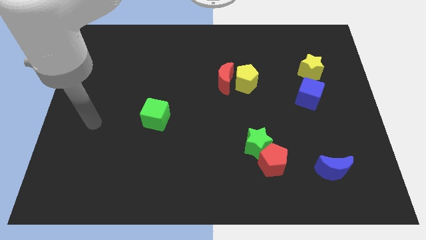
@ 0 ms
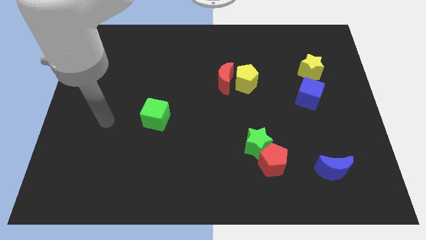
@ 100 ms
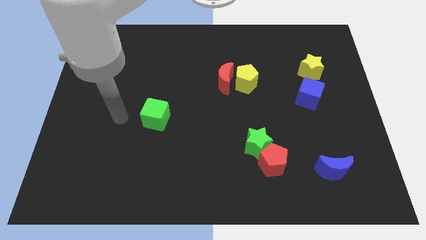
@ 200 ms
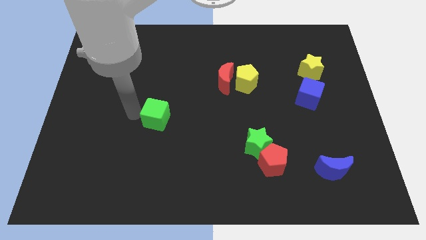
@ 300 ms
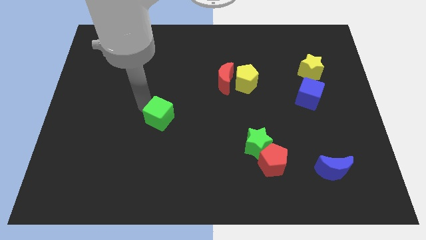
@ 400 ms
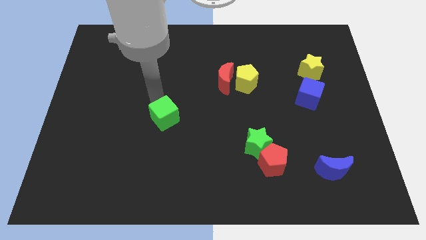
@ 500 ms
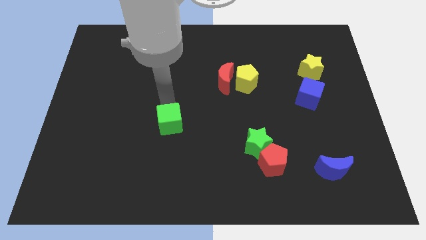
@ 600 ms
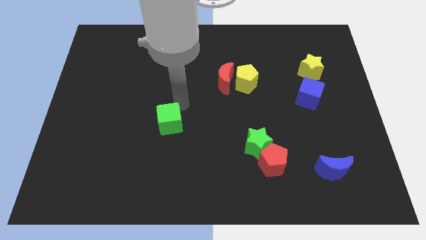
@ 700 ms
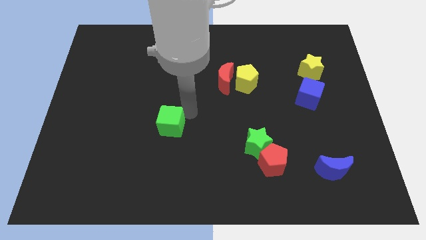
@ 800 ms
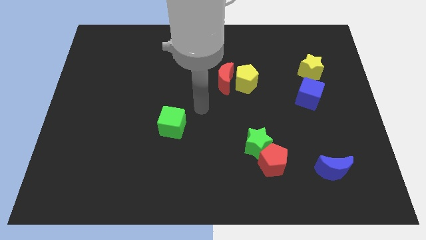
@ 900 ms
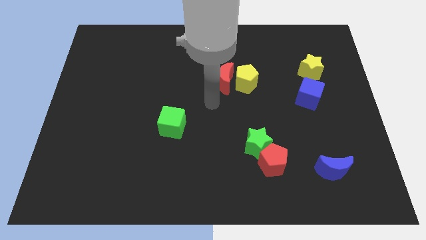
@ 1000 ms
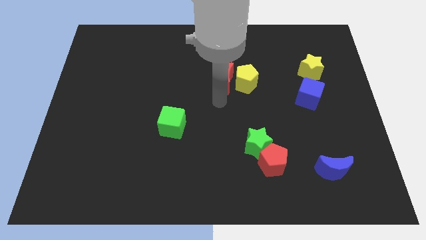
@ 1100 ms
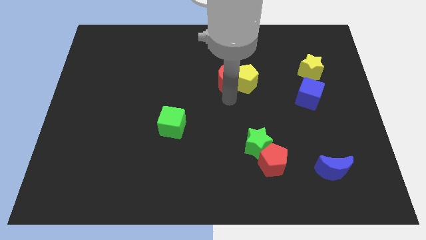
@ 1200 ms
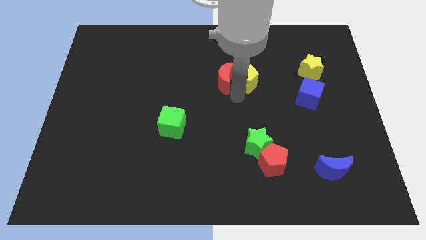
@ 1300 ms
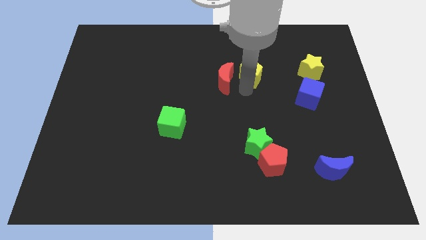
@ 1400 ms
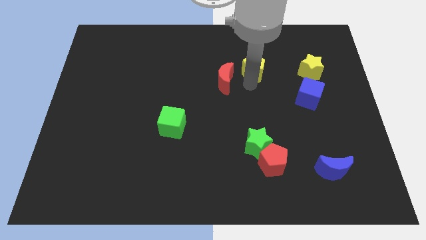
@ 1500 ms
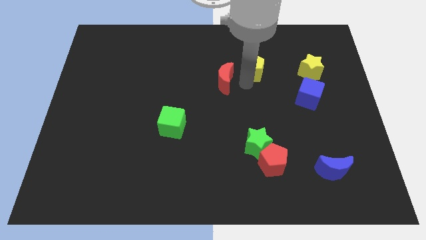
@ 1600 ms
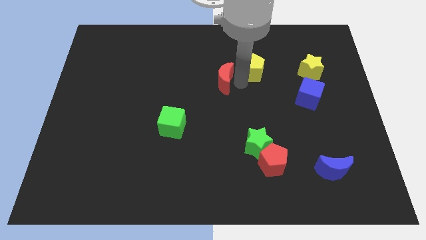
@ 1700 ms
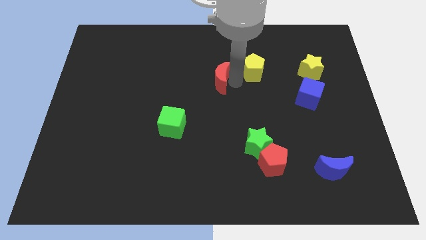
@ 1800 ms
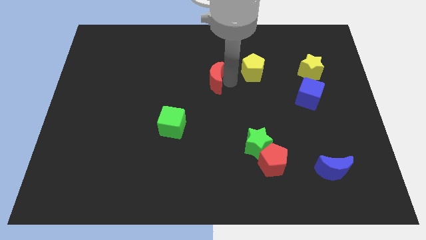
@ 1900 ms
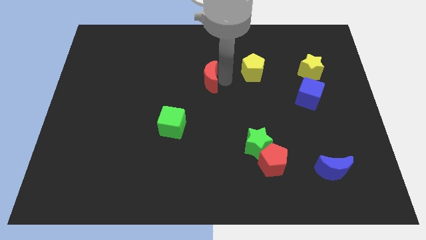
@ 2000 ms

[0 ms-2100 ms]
separate the red moon from the yellow pentagon

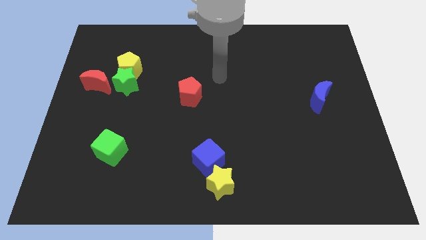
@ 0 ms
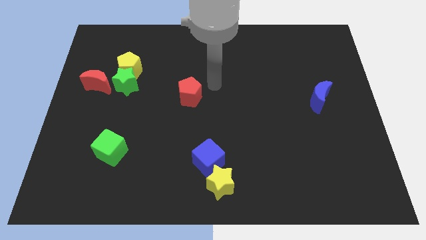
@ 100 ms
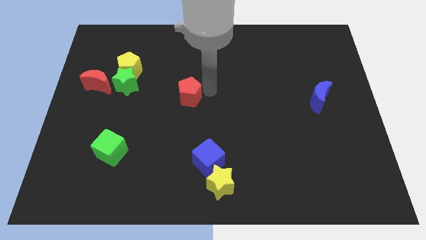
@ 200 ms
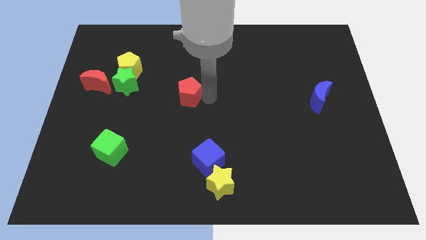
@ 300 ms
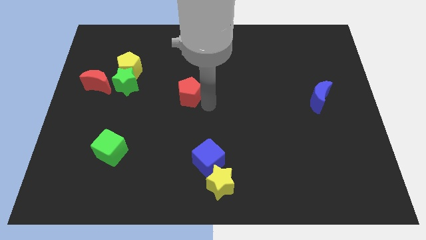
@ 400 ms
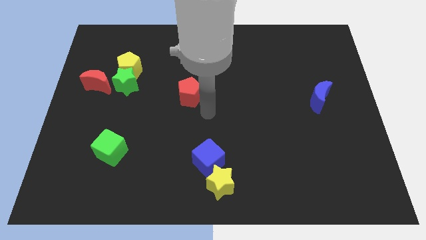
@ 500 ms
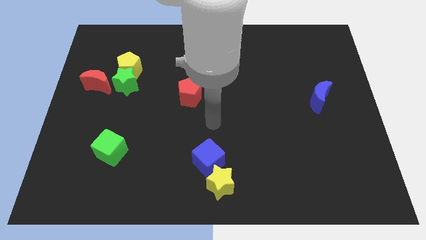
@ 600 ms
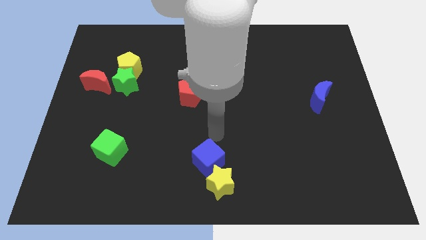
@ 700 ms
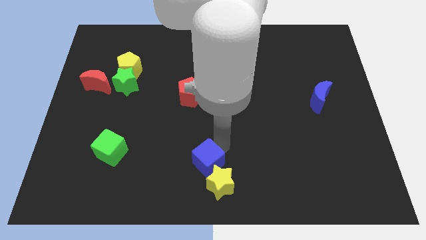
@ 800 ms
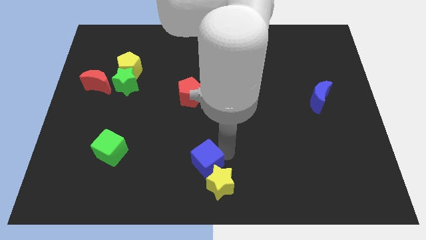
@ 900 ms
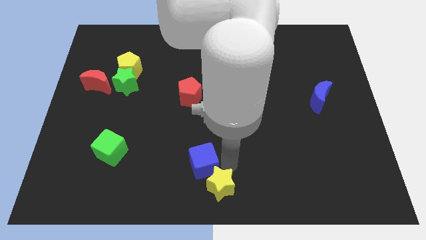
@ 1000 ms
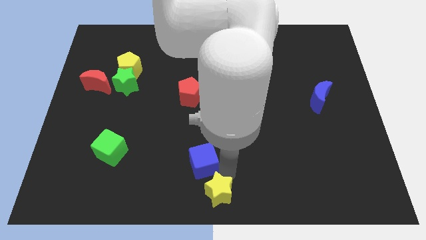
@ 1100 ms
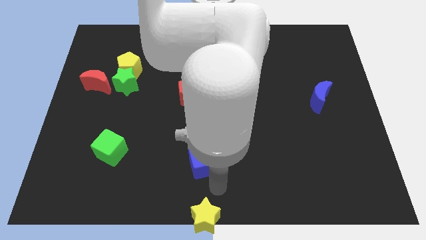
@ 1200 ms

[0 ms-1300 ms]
pull the blue cube apart from the yellow star

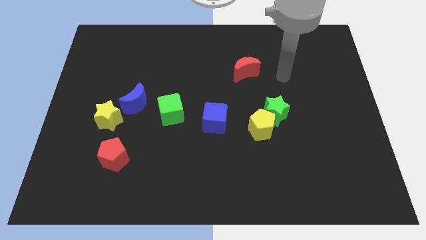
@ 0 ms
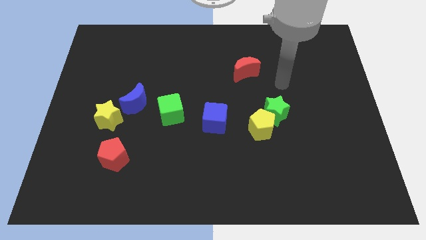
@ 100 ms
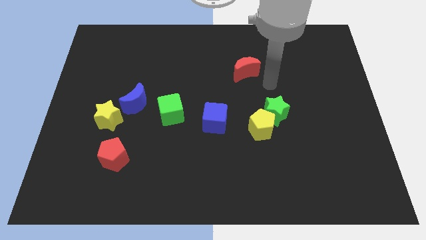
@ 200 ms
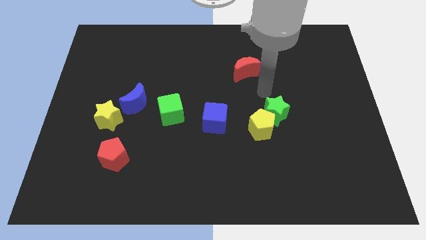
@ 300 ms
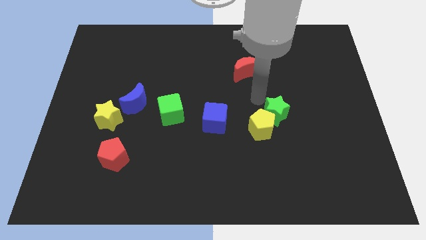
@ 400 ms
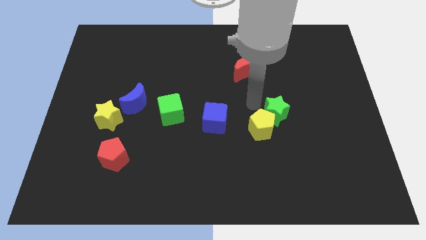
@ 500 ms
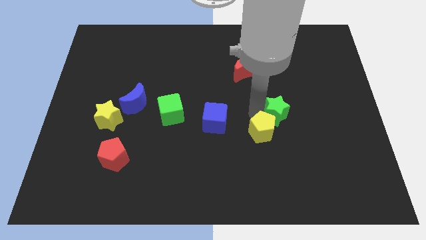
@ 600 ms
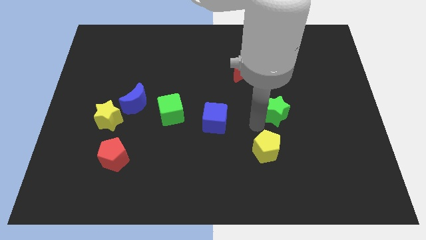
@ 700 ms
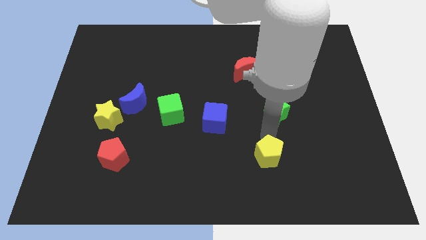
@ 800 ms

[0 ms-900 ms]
separate the green star from the yellow pentagon

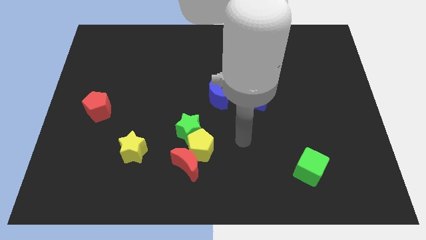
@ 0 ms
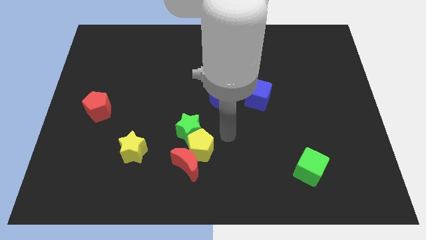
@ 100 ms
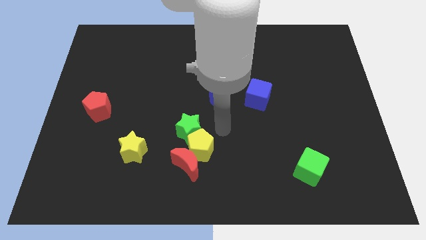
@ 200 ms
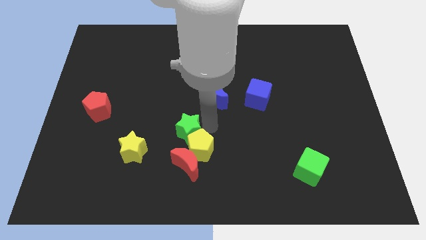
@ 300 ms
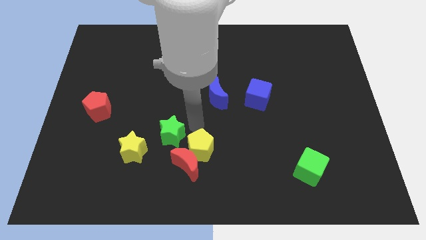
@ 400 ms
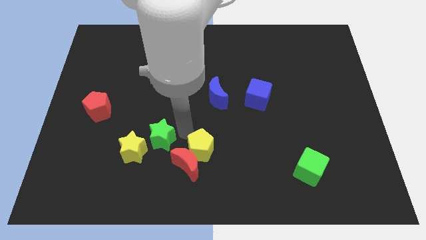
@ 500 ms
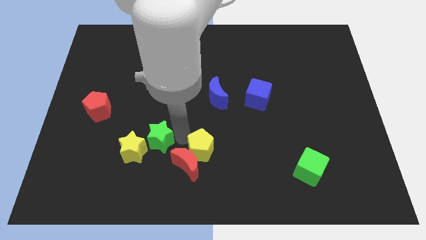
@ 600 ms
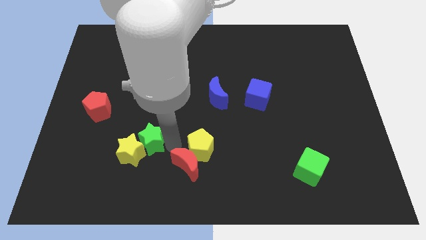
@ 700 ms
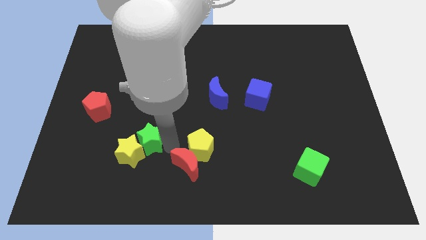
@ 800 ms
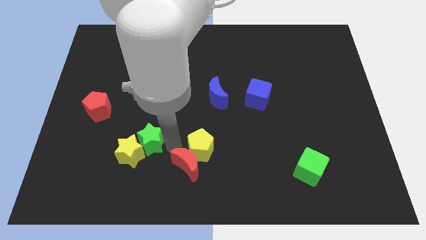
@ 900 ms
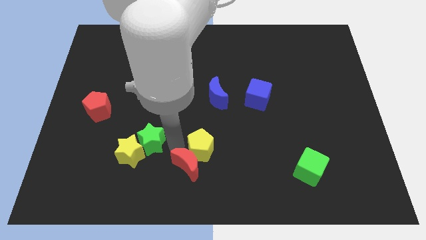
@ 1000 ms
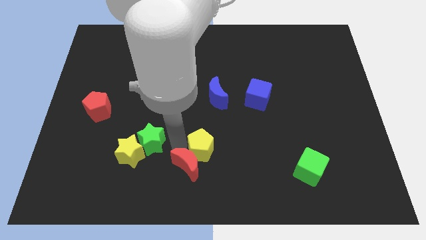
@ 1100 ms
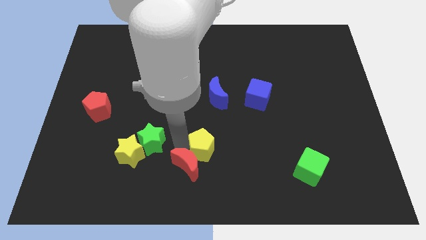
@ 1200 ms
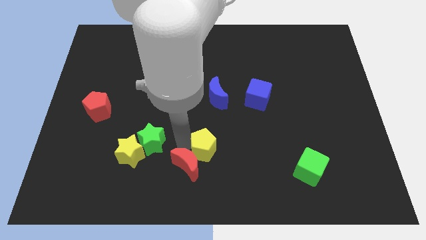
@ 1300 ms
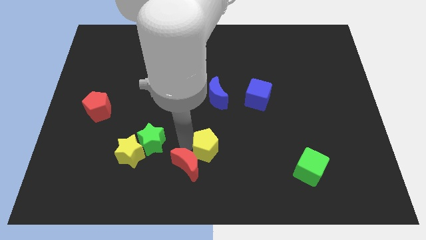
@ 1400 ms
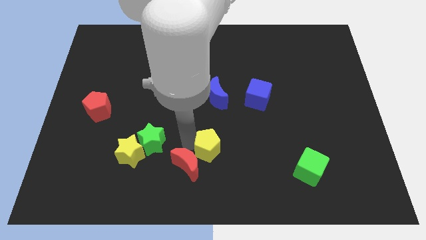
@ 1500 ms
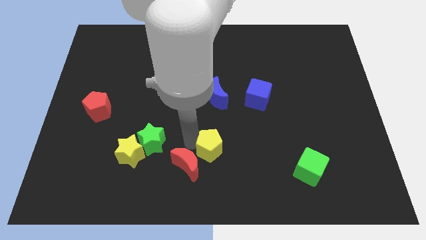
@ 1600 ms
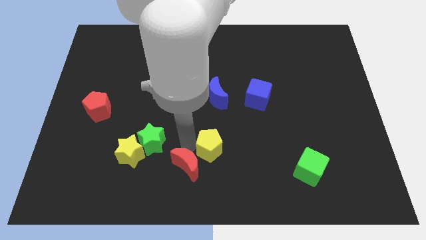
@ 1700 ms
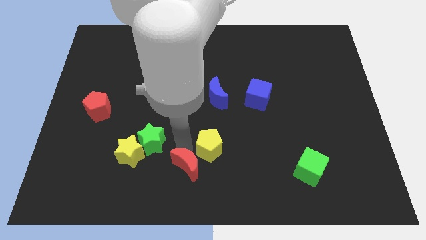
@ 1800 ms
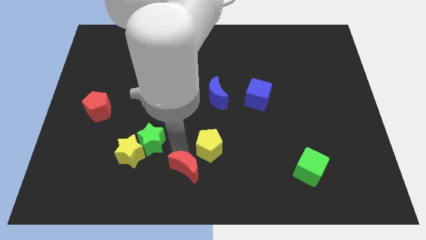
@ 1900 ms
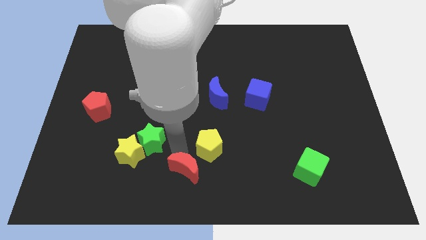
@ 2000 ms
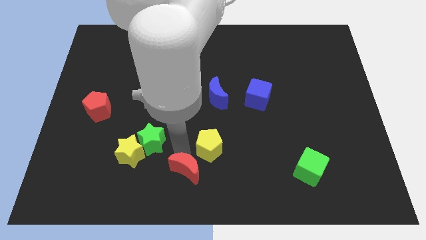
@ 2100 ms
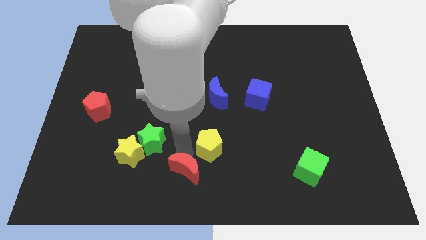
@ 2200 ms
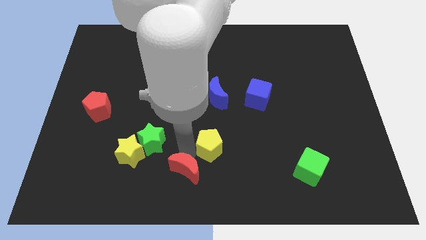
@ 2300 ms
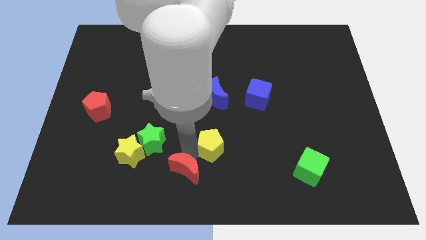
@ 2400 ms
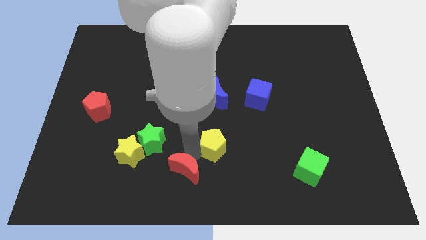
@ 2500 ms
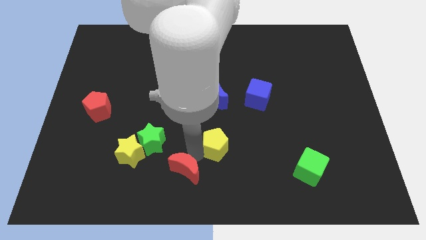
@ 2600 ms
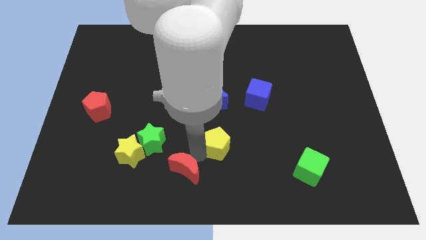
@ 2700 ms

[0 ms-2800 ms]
move the yellow pentagon away from the red moon and green star

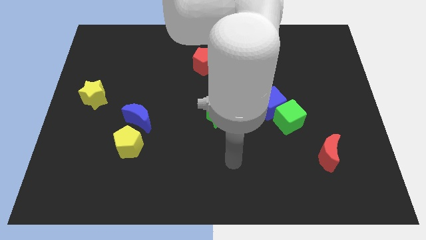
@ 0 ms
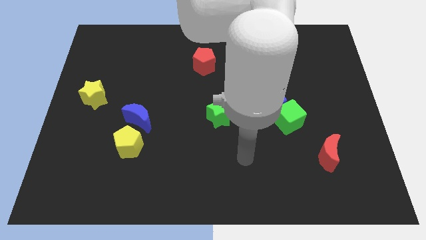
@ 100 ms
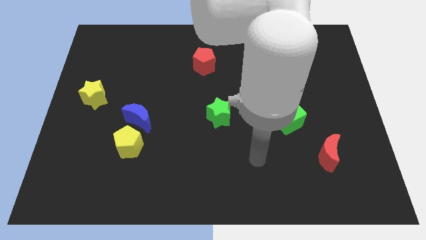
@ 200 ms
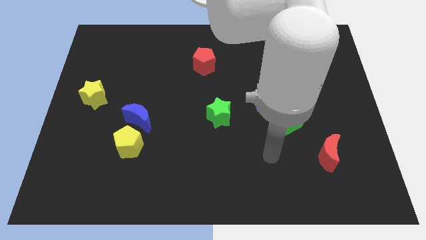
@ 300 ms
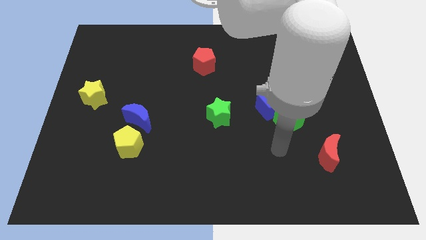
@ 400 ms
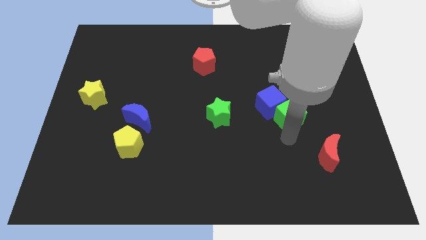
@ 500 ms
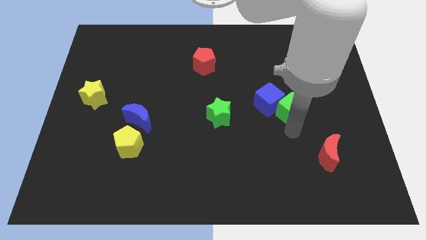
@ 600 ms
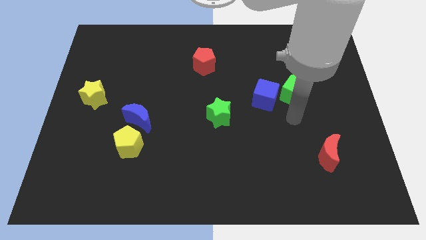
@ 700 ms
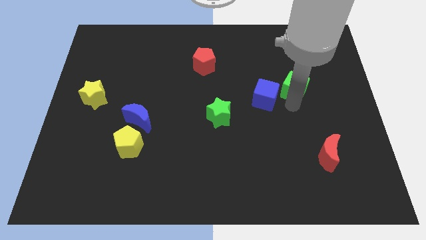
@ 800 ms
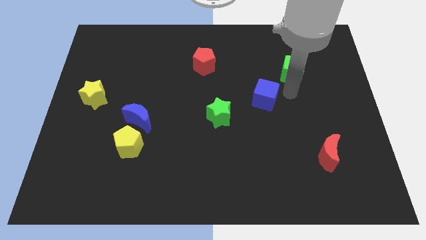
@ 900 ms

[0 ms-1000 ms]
separate the blue cube from the green cube

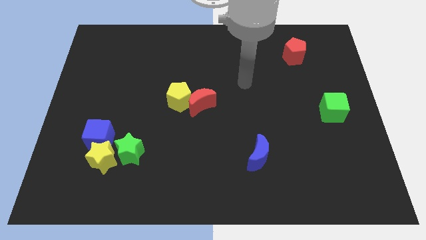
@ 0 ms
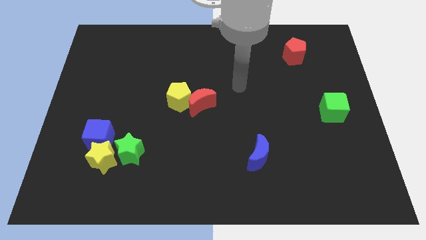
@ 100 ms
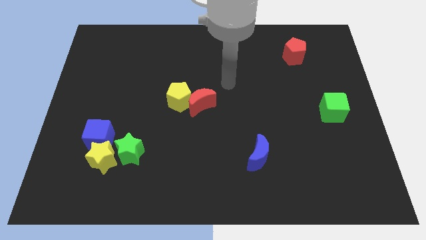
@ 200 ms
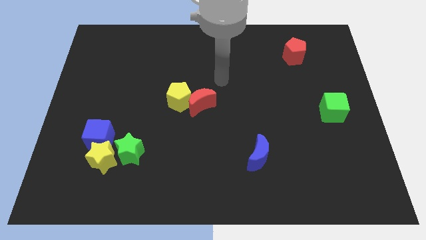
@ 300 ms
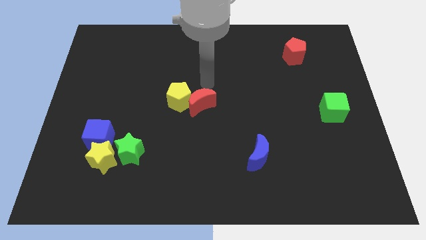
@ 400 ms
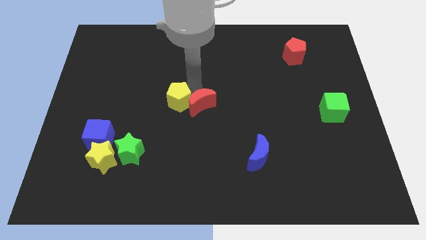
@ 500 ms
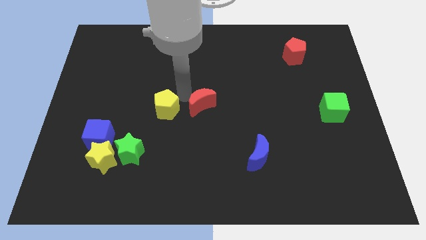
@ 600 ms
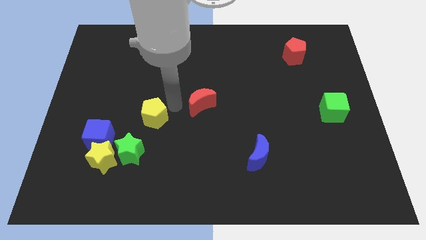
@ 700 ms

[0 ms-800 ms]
pull the red moon apart from the yellow pentagon

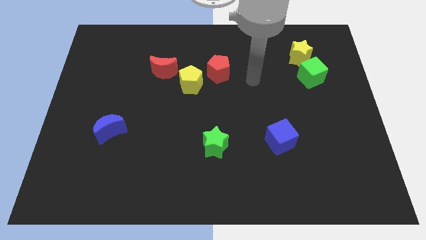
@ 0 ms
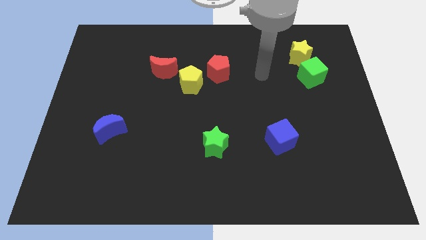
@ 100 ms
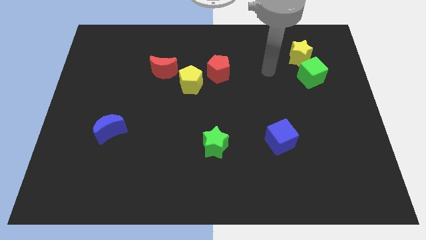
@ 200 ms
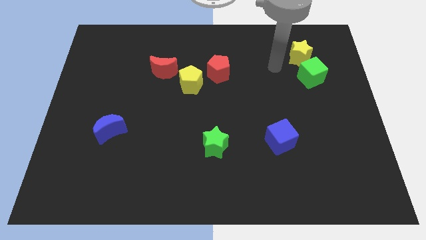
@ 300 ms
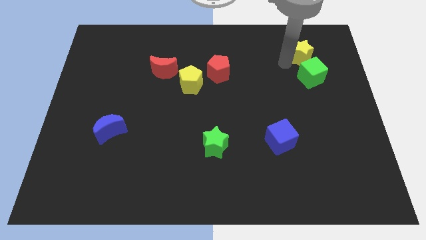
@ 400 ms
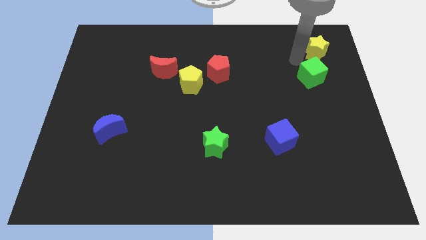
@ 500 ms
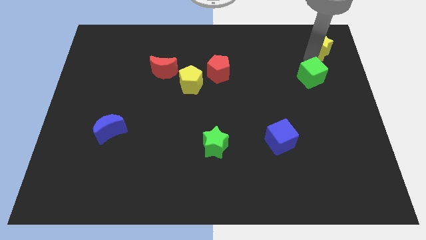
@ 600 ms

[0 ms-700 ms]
separate the green cube from the yellow star
